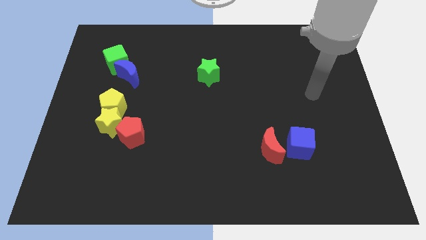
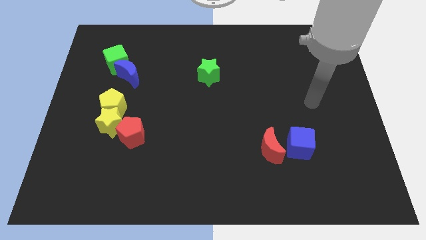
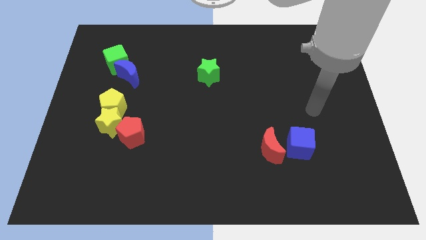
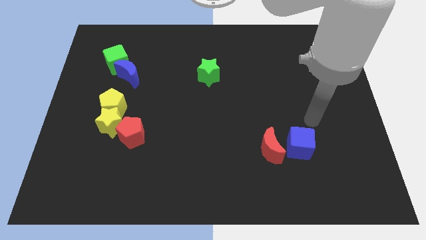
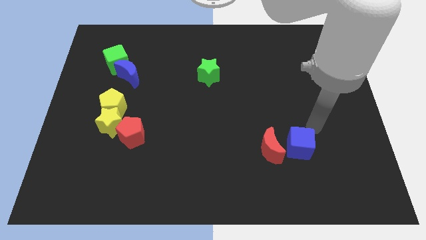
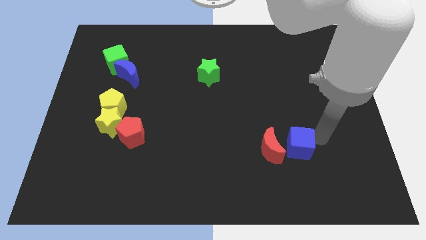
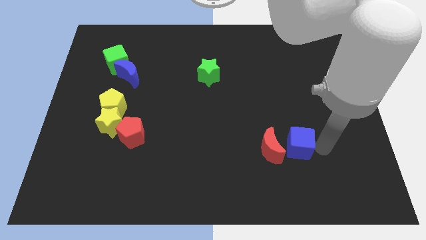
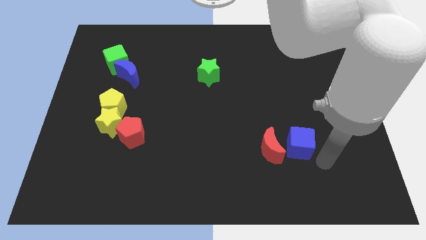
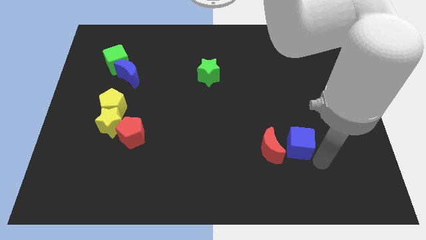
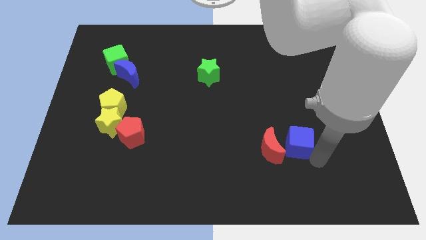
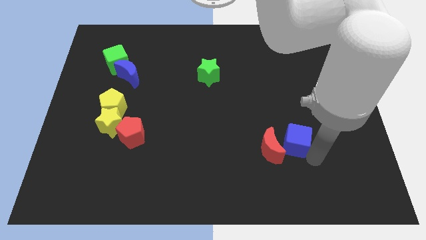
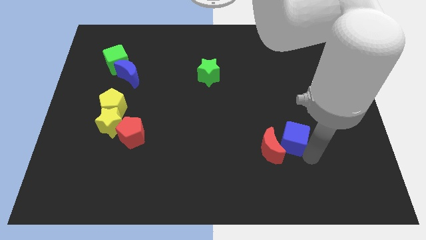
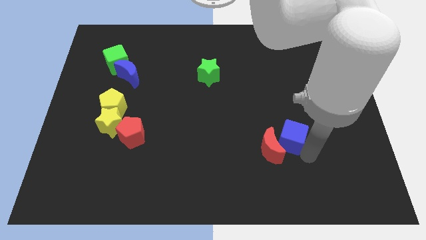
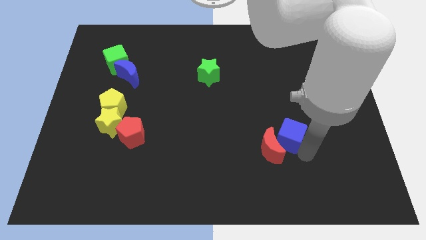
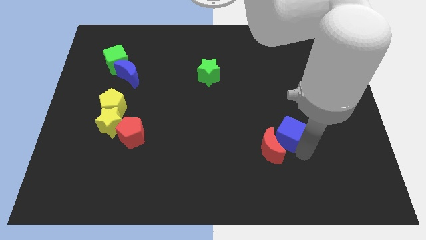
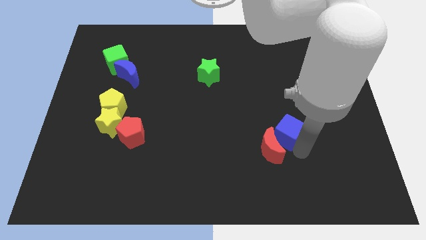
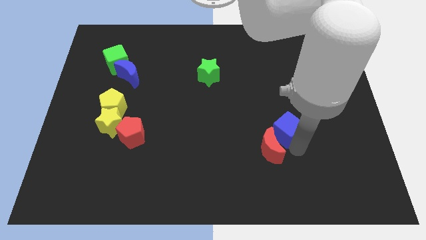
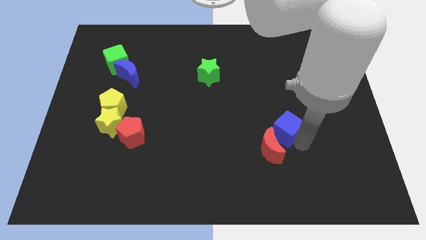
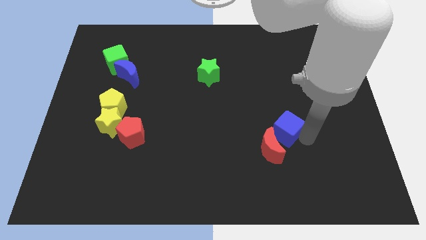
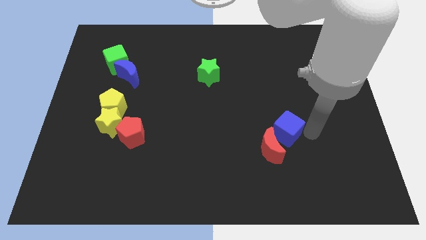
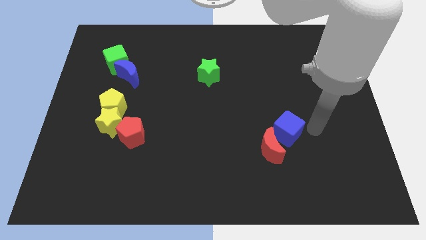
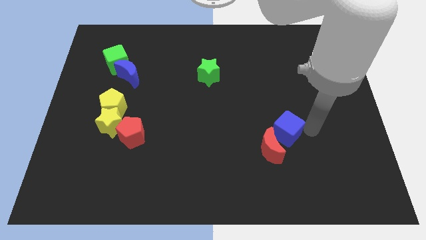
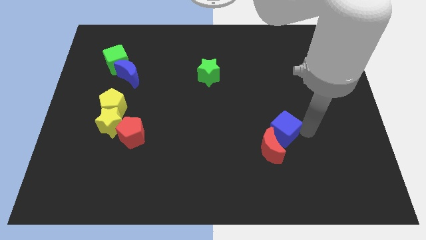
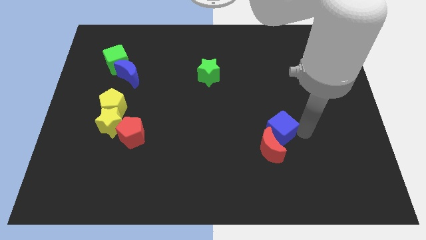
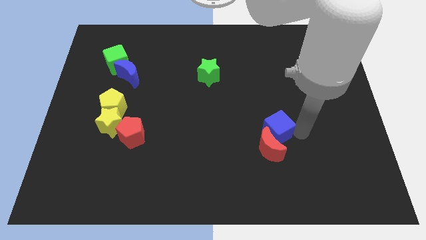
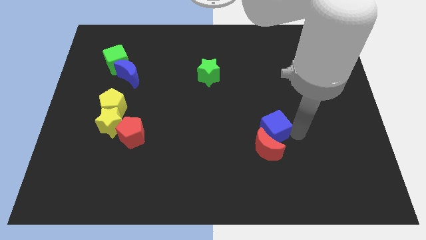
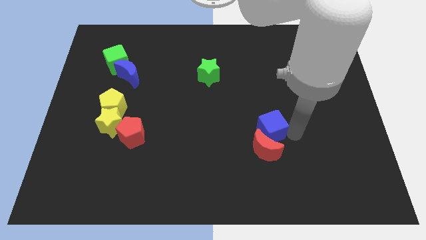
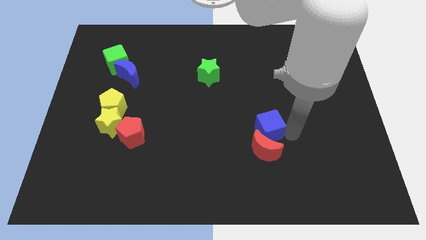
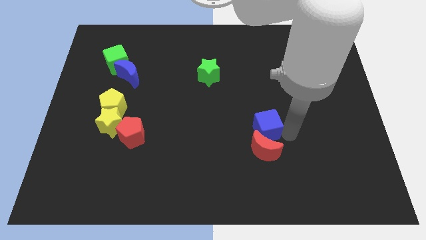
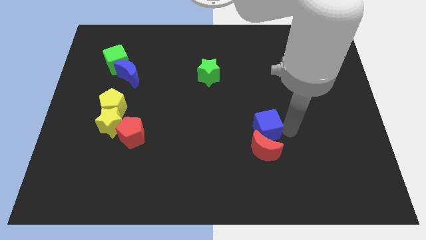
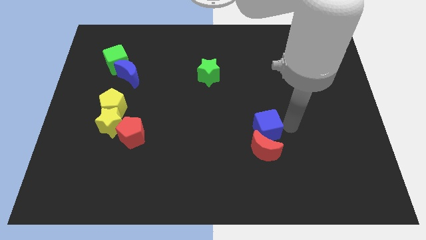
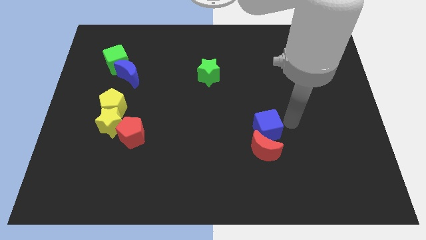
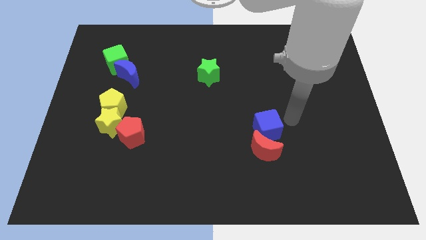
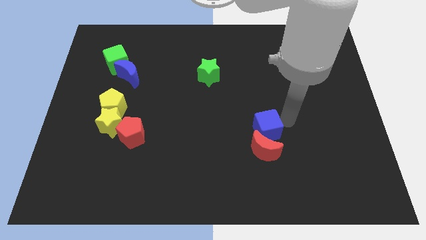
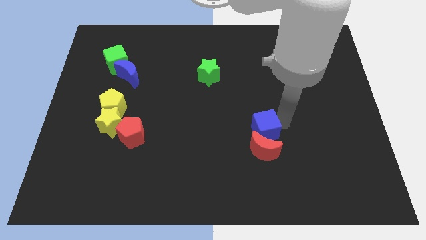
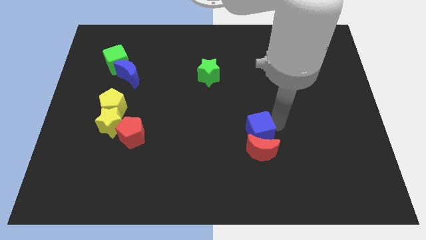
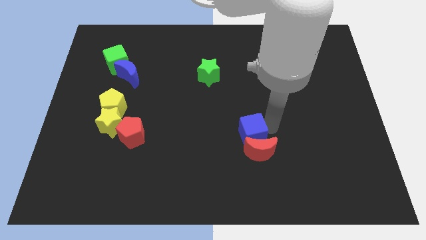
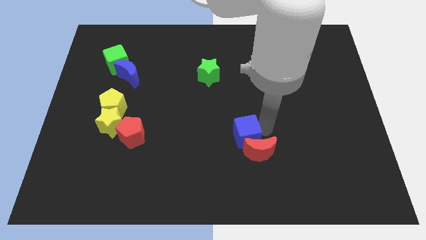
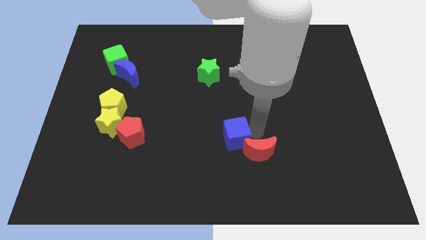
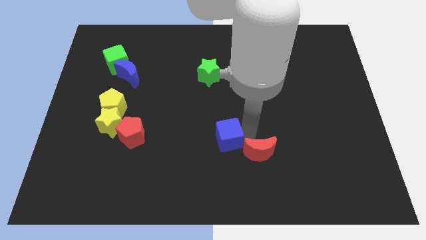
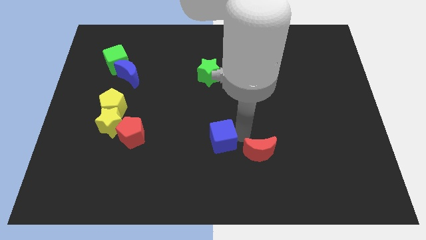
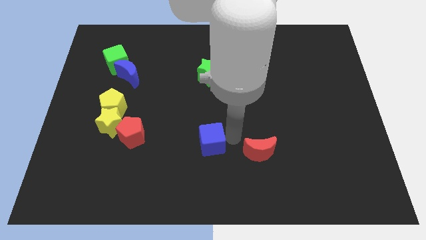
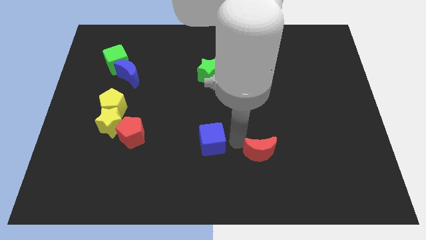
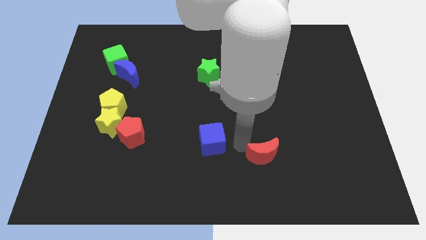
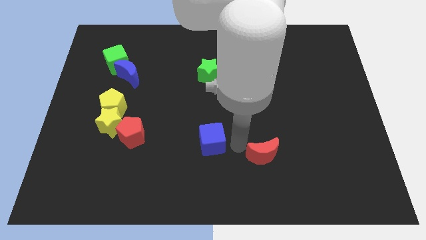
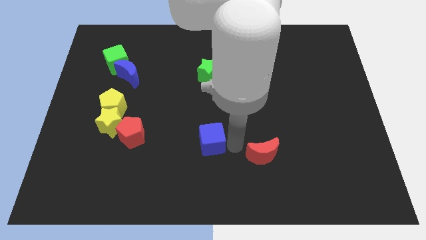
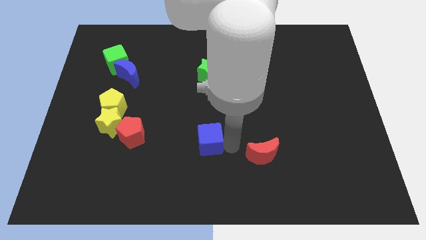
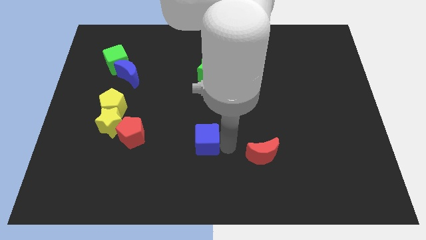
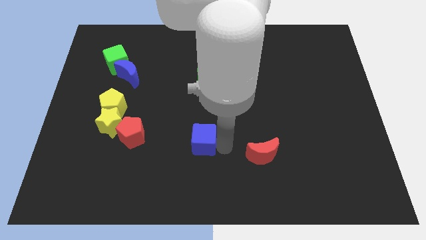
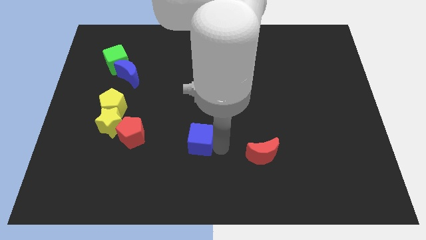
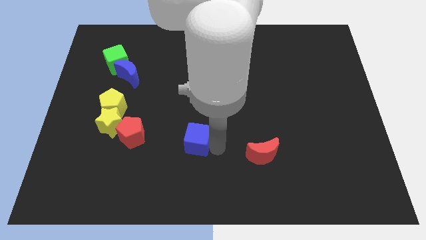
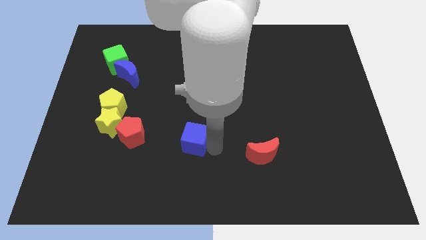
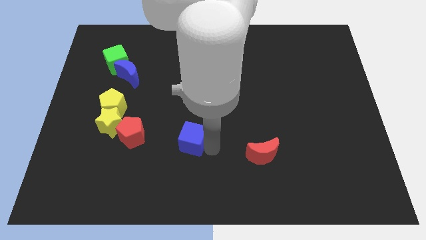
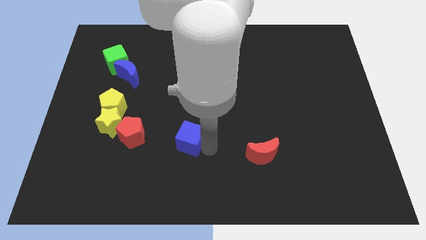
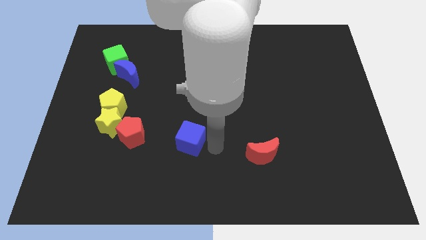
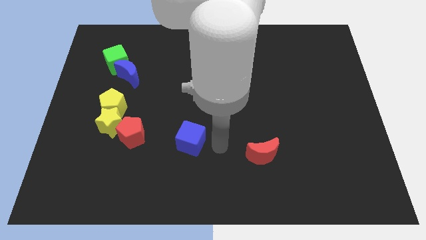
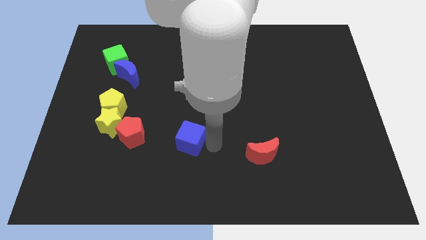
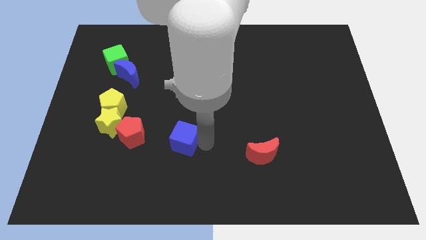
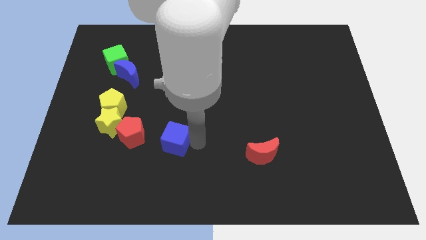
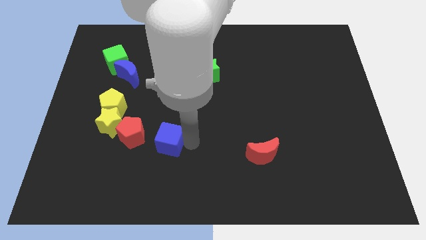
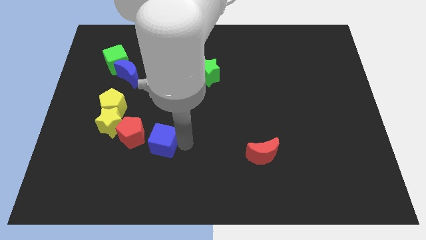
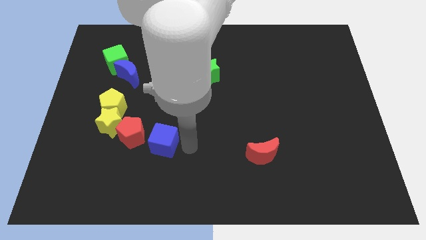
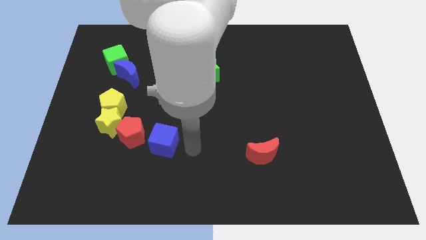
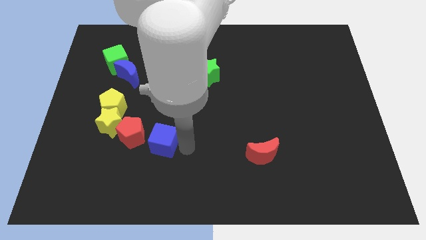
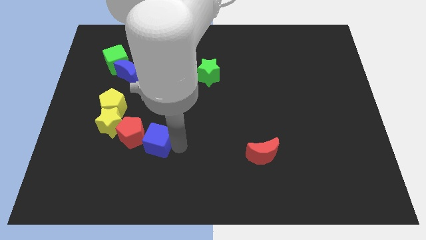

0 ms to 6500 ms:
push the blue cube next to the red pentagon

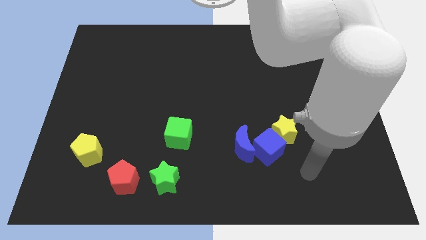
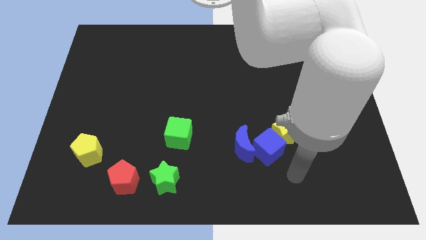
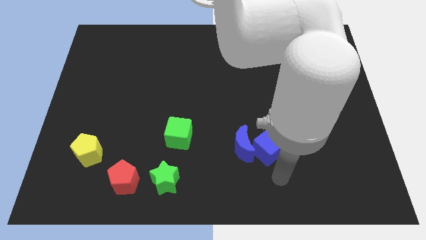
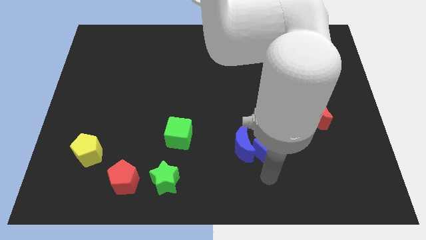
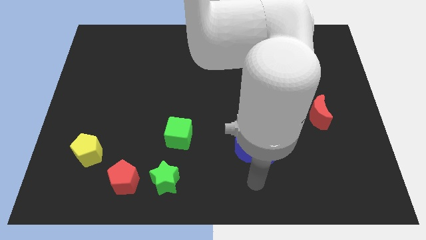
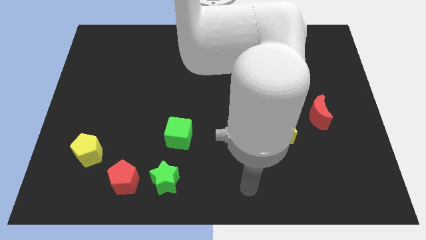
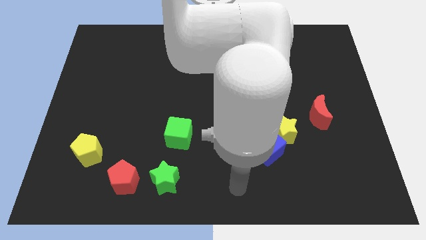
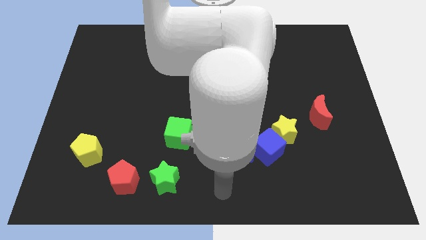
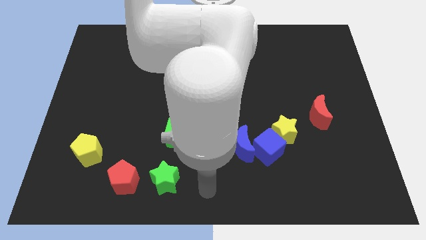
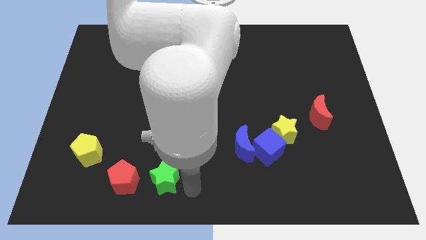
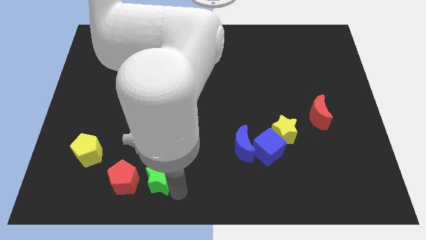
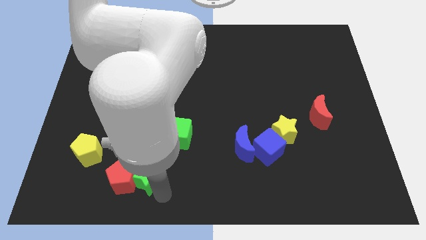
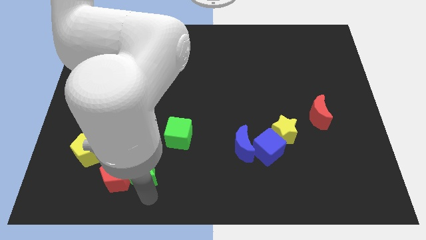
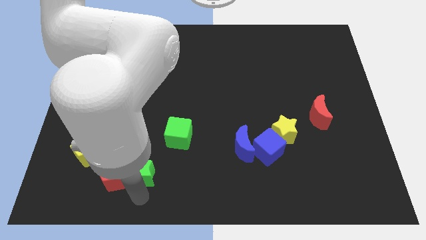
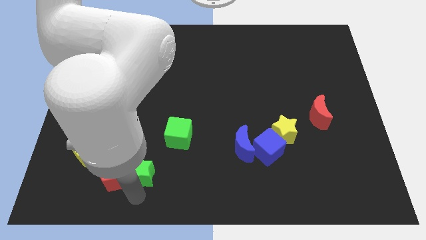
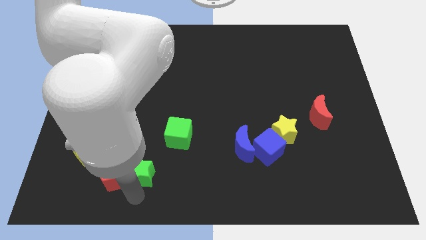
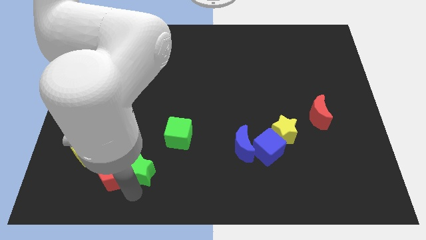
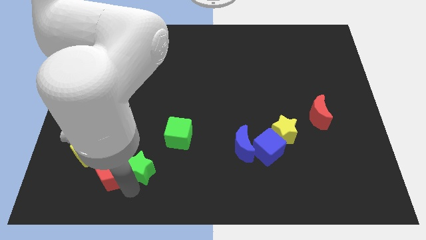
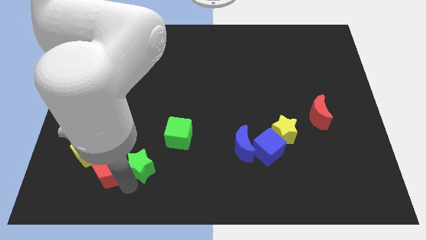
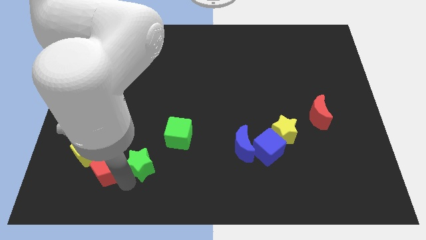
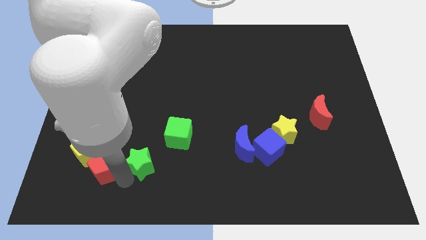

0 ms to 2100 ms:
slide the red pentagon next to the yellow pentagon

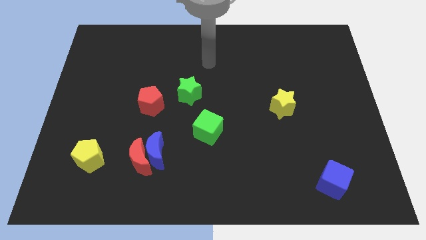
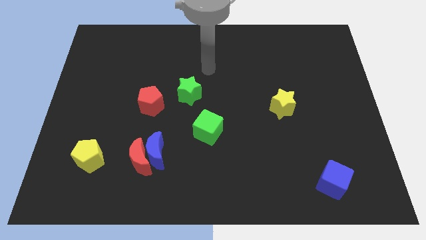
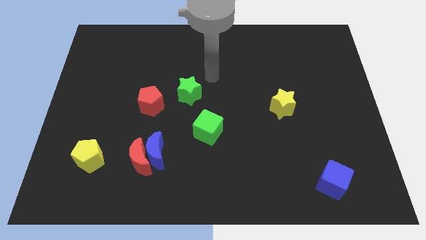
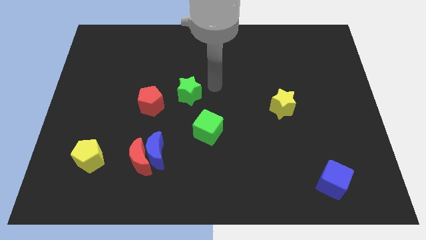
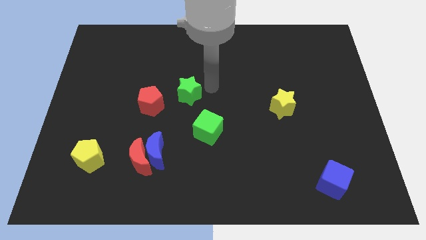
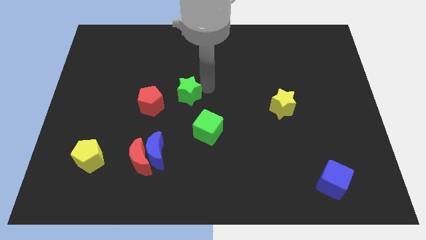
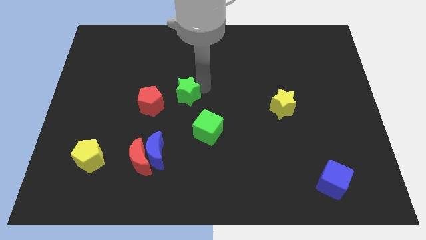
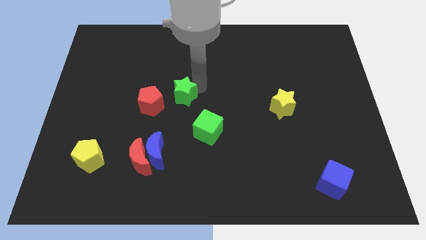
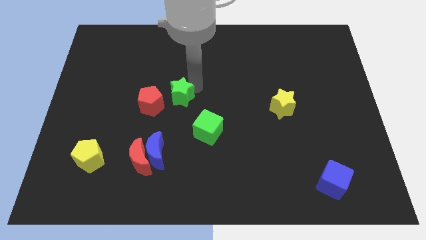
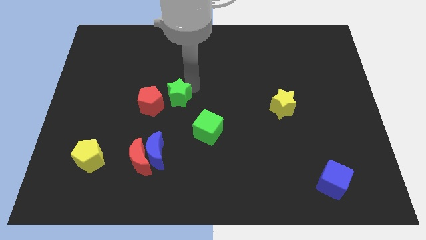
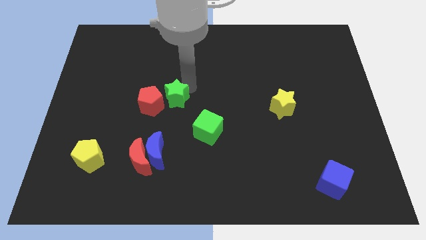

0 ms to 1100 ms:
put the green star close to the red pentagon
